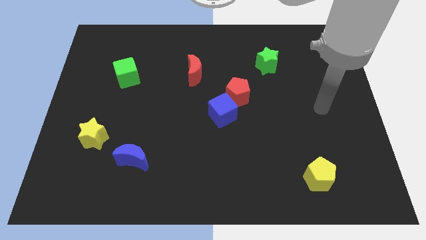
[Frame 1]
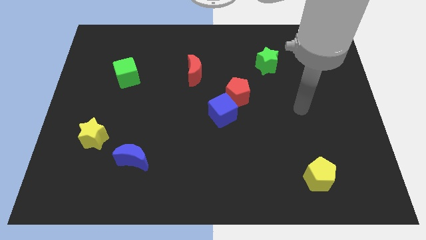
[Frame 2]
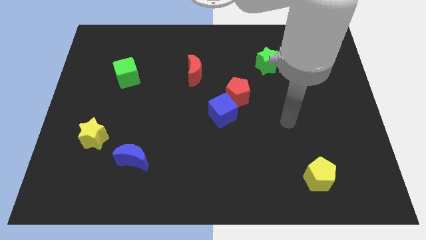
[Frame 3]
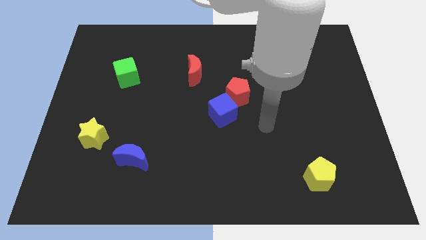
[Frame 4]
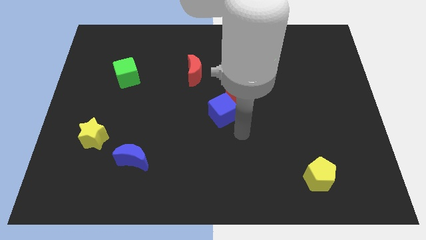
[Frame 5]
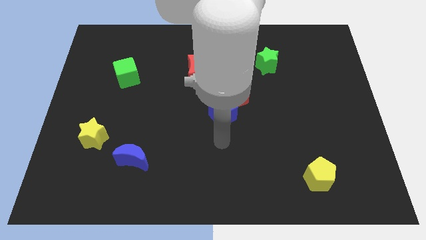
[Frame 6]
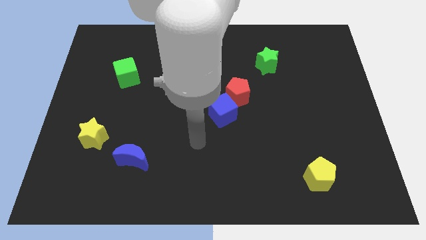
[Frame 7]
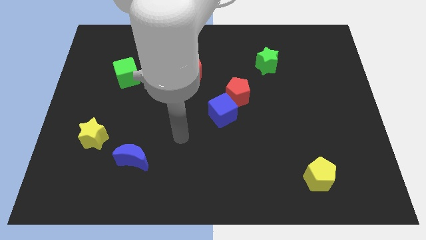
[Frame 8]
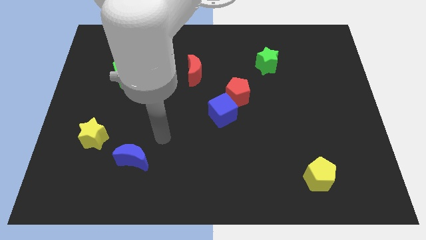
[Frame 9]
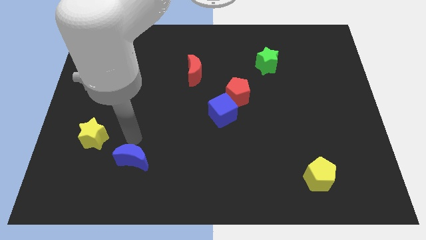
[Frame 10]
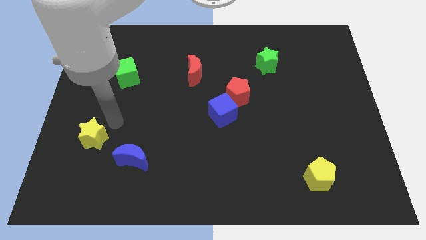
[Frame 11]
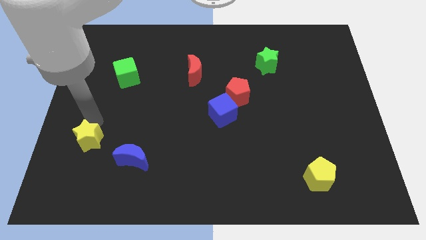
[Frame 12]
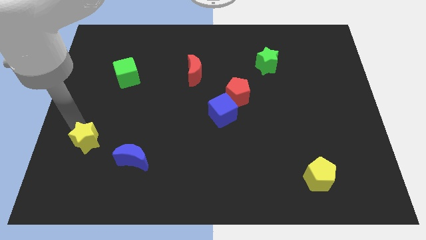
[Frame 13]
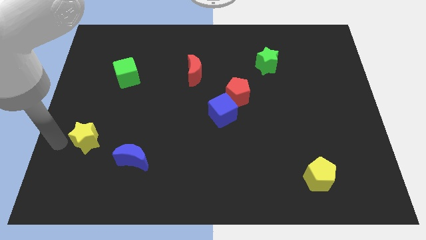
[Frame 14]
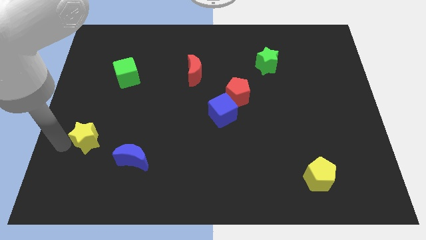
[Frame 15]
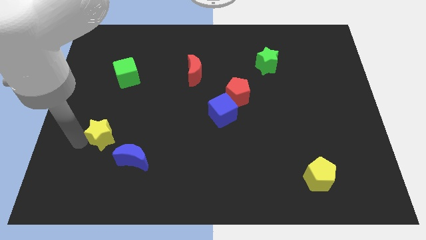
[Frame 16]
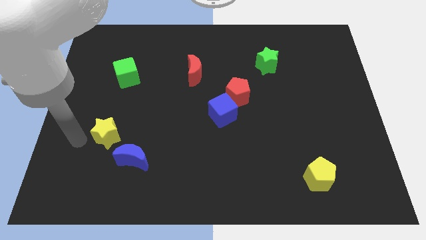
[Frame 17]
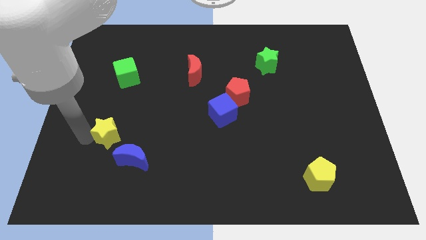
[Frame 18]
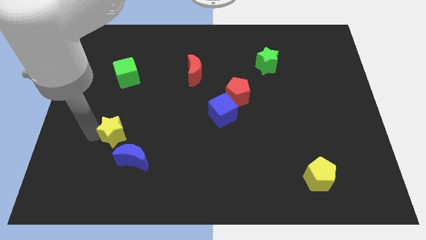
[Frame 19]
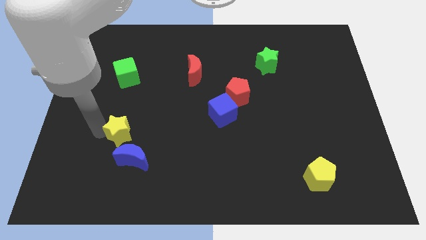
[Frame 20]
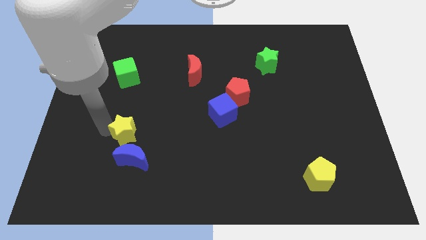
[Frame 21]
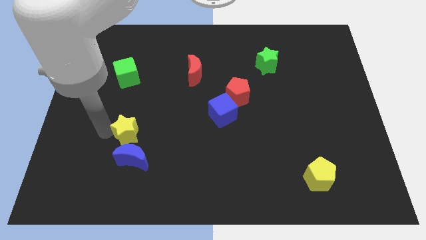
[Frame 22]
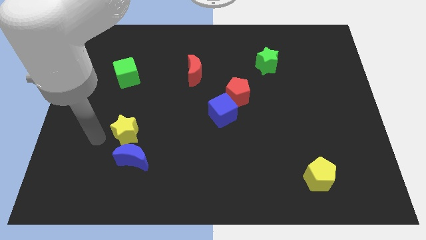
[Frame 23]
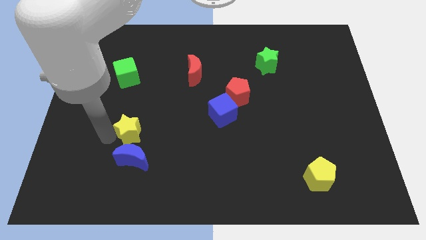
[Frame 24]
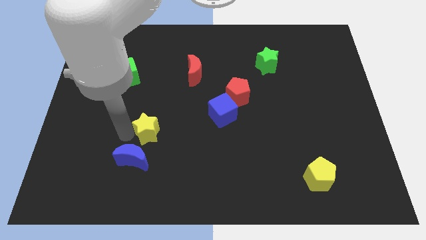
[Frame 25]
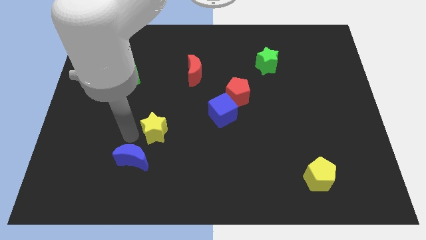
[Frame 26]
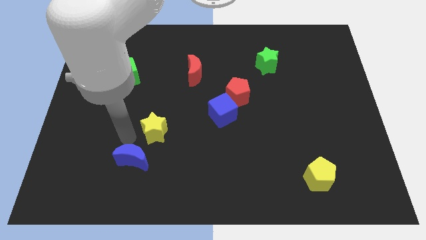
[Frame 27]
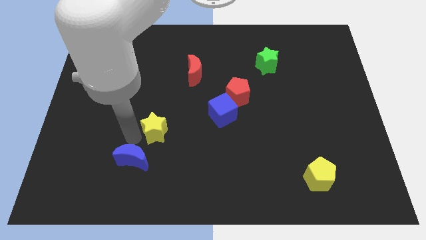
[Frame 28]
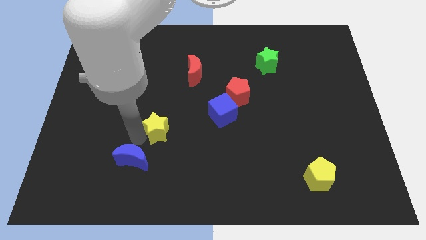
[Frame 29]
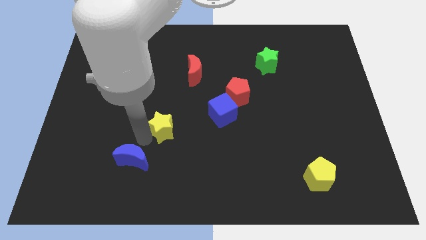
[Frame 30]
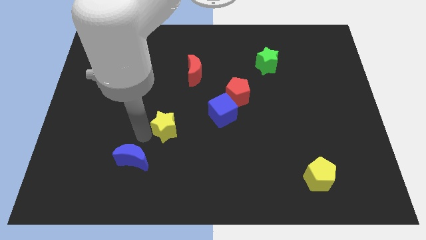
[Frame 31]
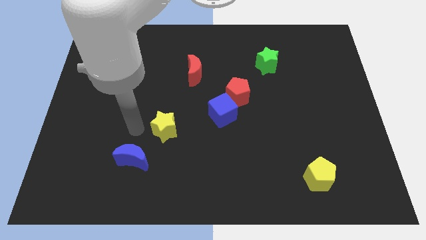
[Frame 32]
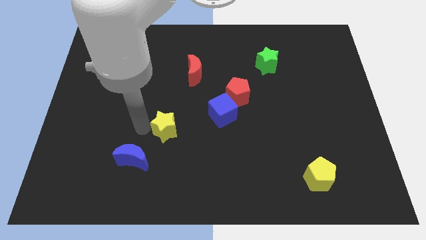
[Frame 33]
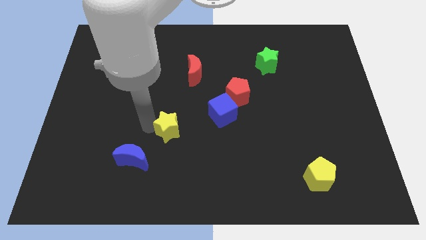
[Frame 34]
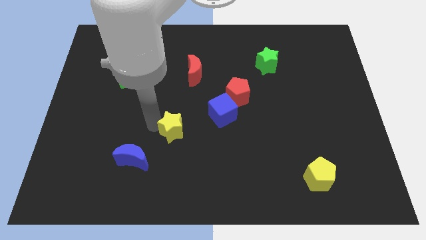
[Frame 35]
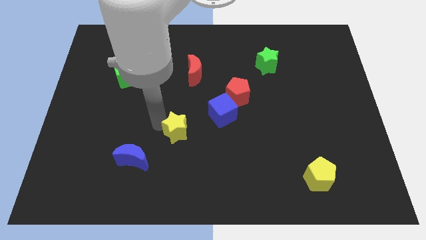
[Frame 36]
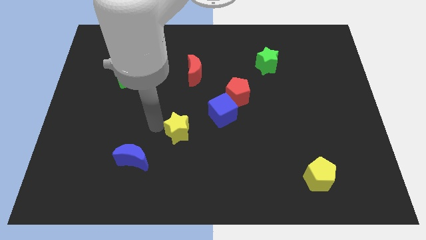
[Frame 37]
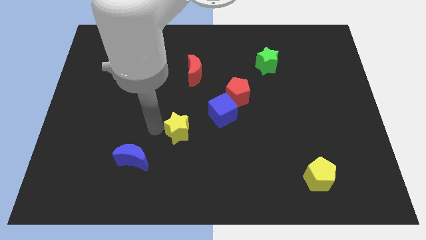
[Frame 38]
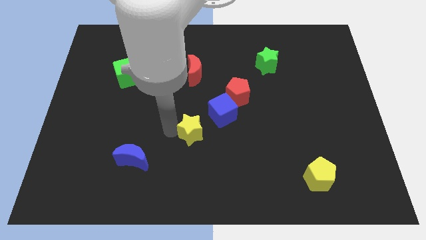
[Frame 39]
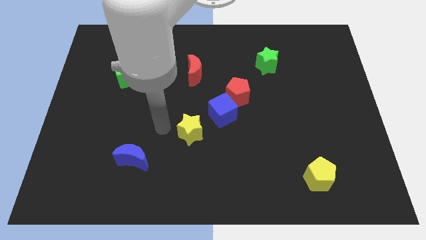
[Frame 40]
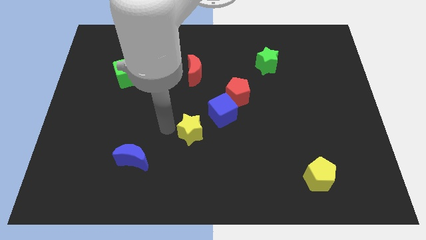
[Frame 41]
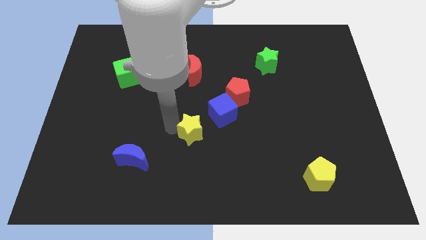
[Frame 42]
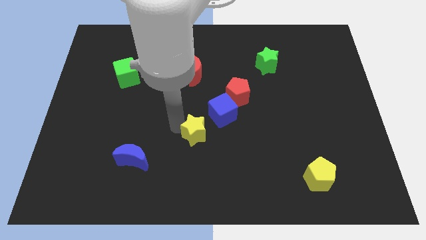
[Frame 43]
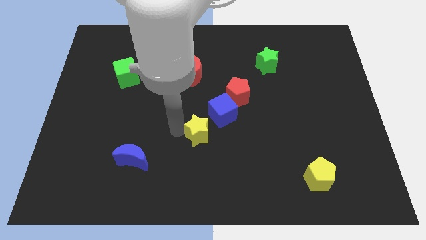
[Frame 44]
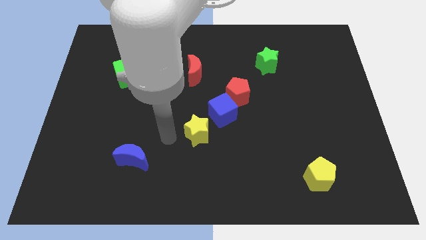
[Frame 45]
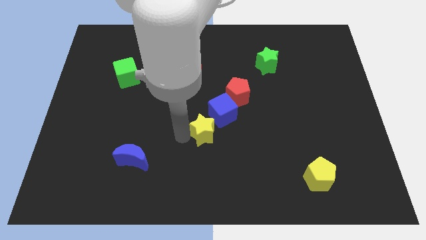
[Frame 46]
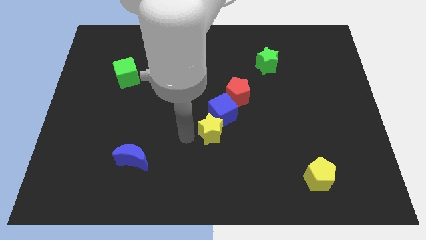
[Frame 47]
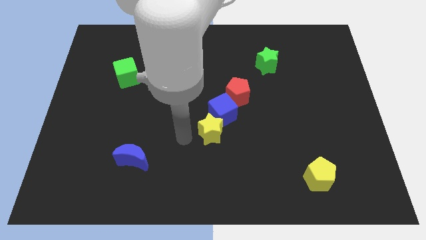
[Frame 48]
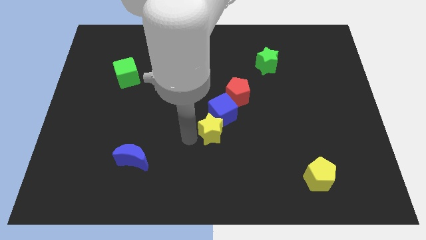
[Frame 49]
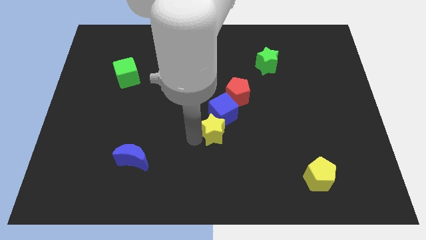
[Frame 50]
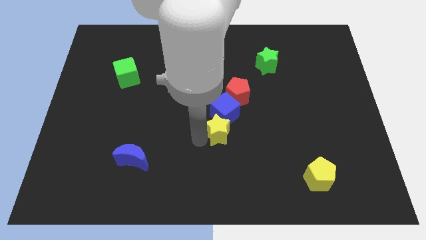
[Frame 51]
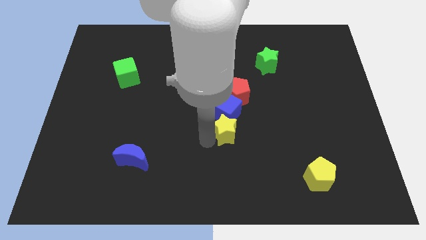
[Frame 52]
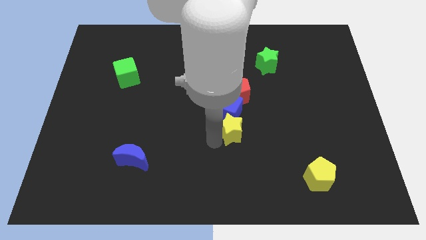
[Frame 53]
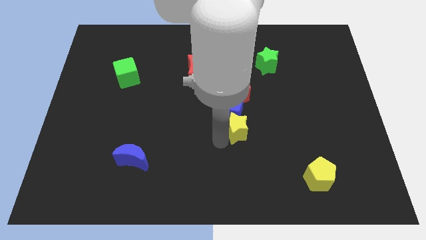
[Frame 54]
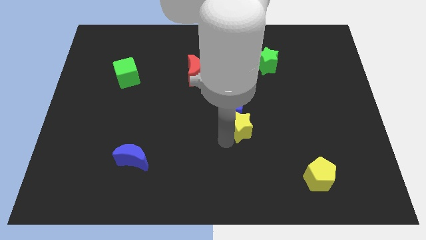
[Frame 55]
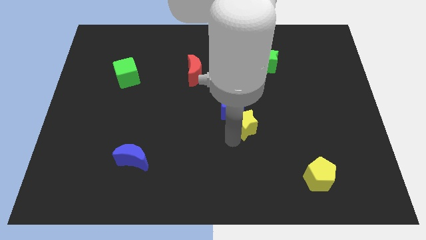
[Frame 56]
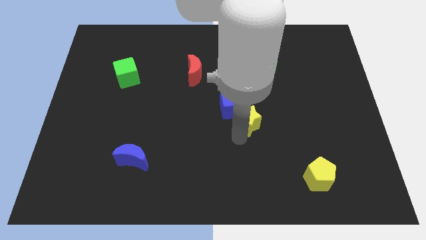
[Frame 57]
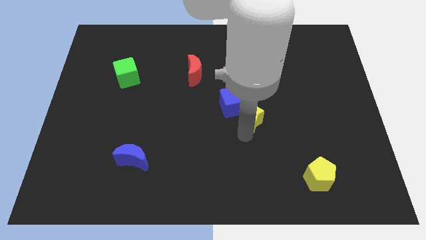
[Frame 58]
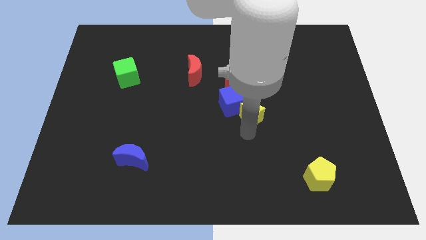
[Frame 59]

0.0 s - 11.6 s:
move the yellow star to the bottom right side of the red pentagon

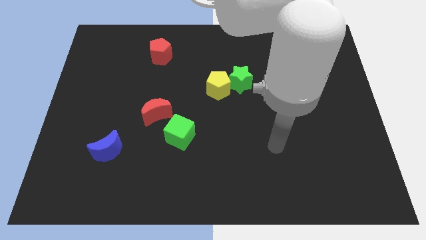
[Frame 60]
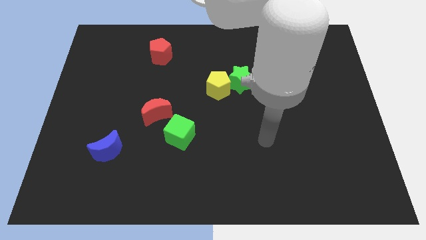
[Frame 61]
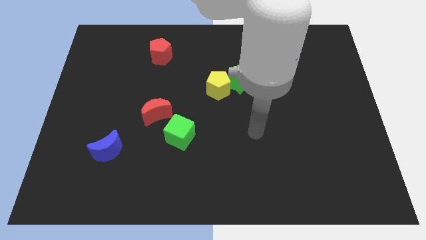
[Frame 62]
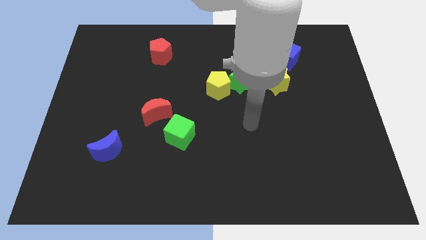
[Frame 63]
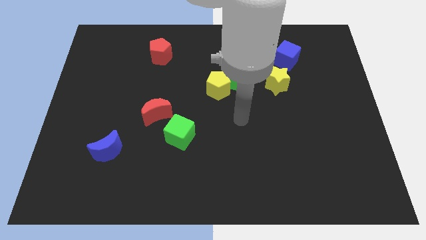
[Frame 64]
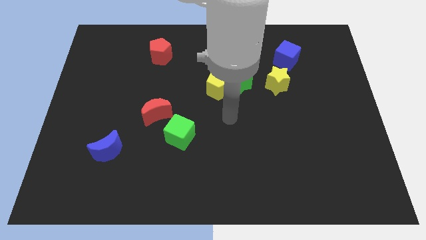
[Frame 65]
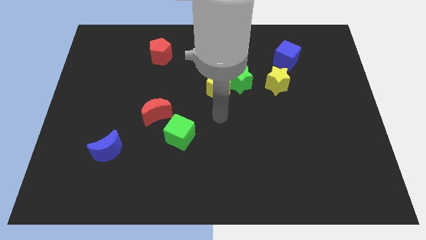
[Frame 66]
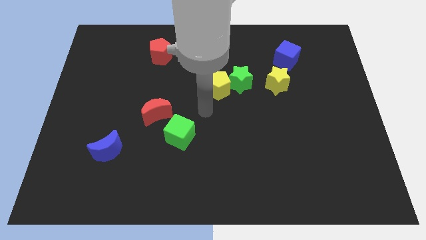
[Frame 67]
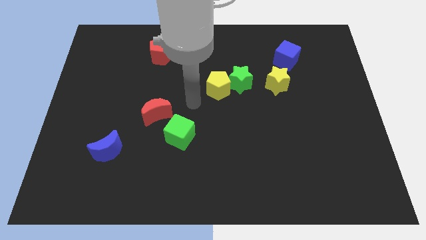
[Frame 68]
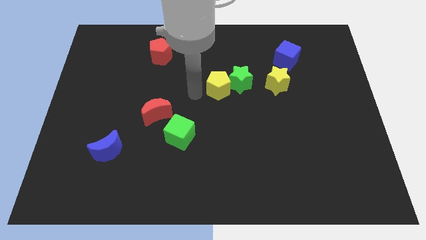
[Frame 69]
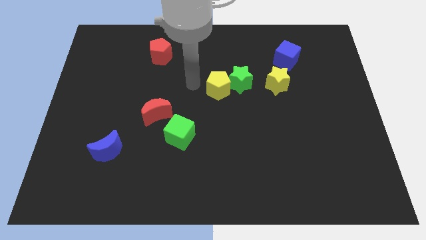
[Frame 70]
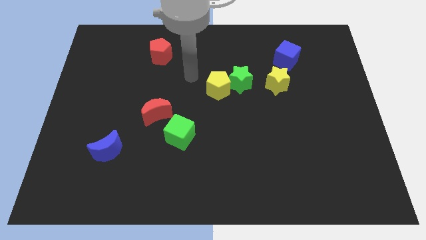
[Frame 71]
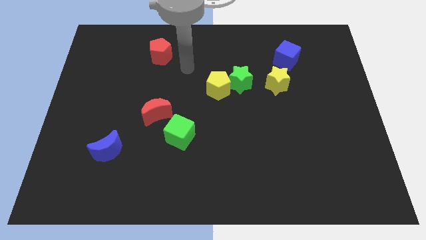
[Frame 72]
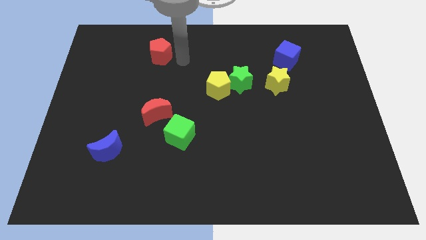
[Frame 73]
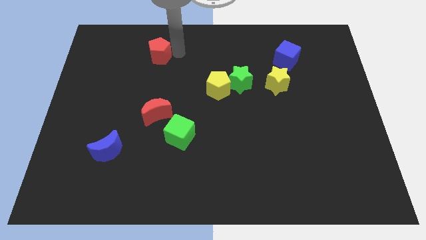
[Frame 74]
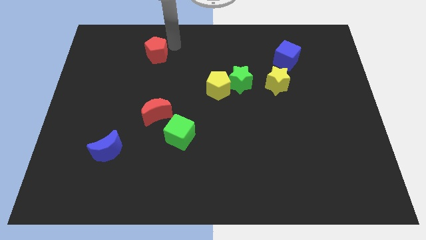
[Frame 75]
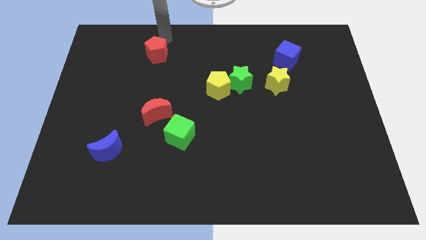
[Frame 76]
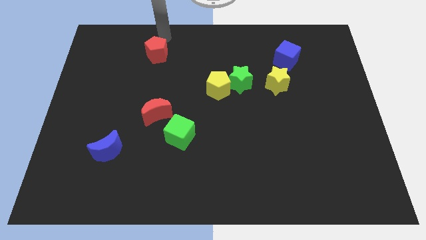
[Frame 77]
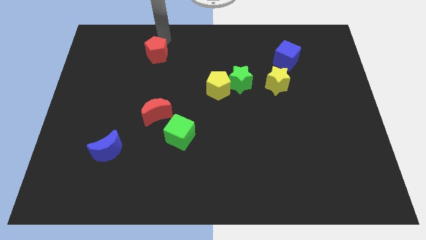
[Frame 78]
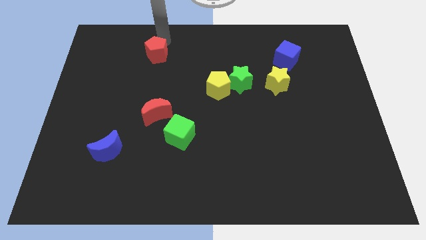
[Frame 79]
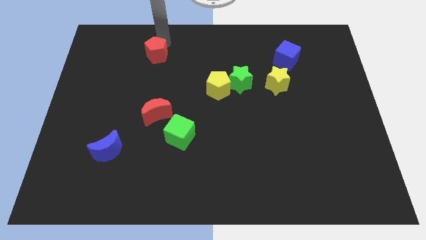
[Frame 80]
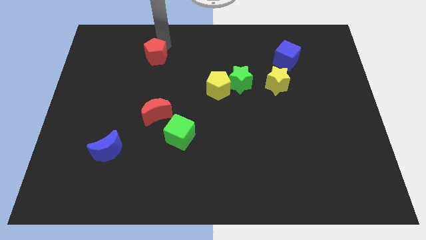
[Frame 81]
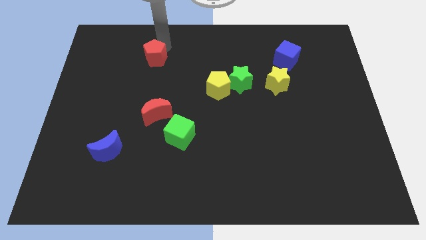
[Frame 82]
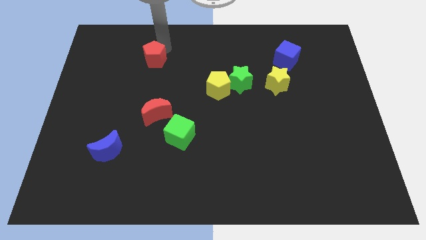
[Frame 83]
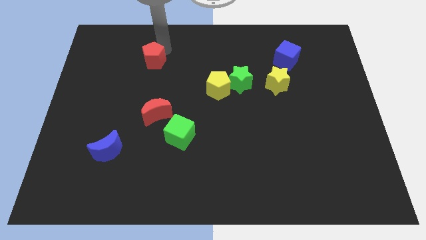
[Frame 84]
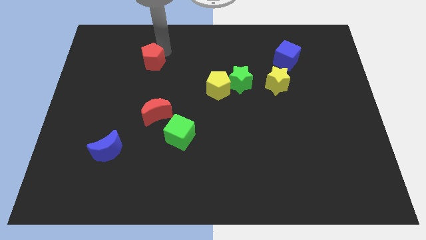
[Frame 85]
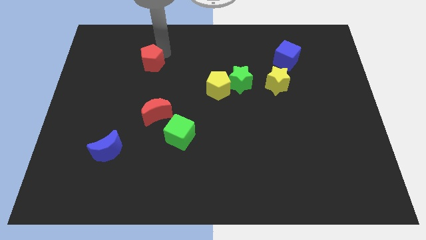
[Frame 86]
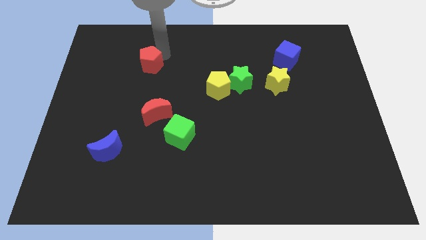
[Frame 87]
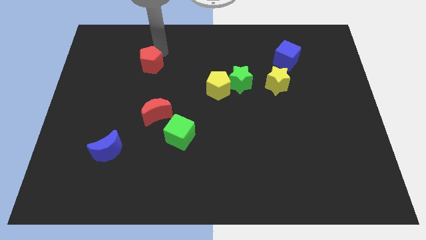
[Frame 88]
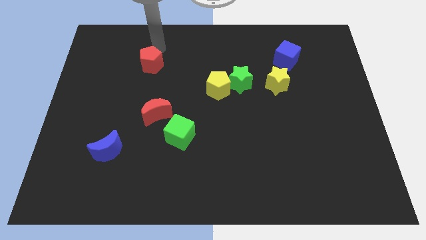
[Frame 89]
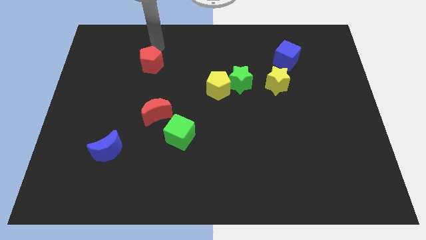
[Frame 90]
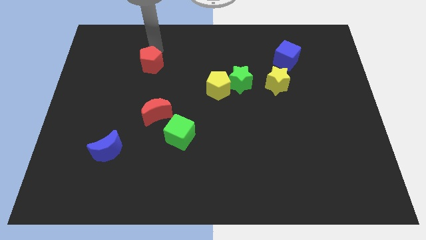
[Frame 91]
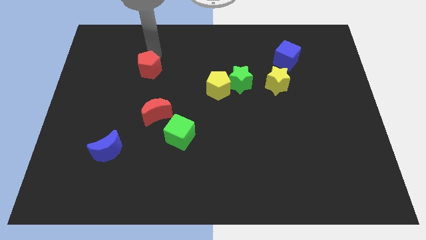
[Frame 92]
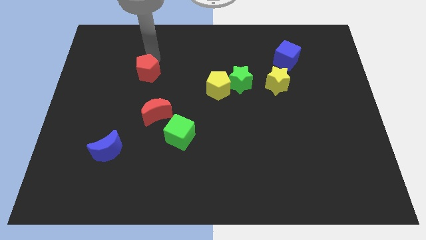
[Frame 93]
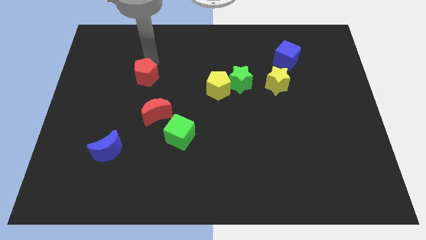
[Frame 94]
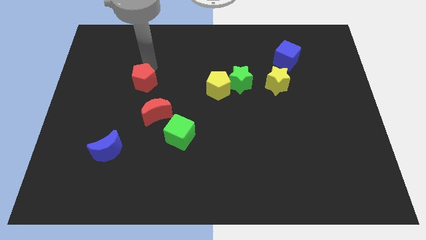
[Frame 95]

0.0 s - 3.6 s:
move the red pentagon diagonally up and to the left of the red moon
